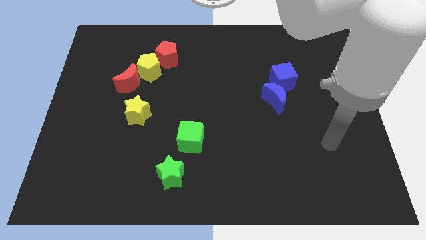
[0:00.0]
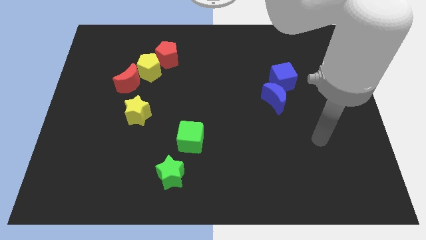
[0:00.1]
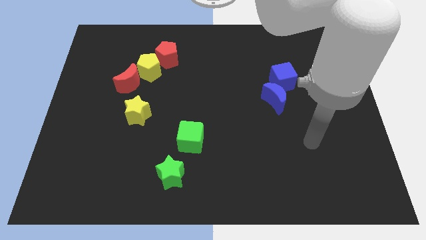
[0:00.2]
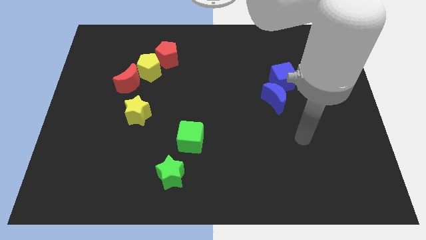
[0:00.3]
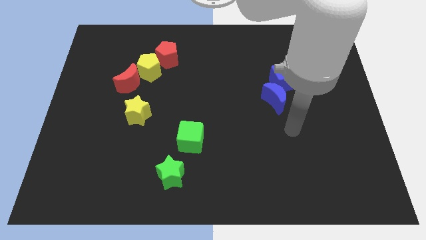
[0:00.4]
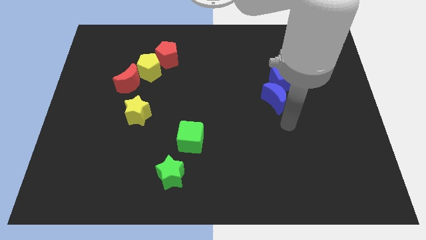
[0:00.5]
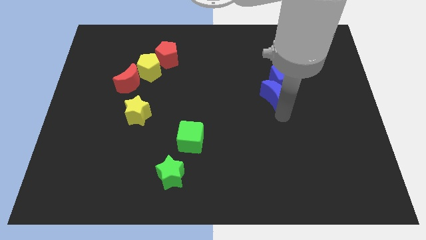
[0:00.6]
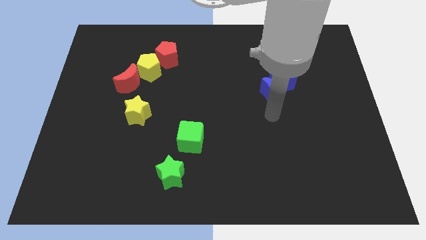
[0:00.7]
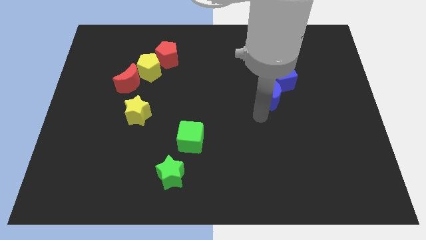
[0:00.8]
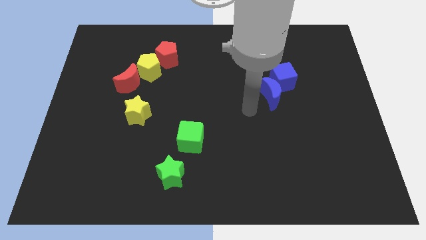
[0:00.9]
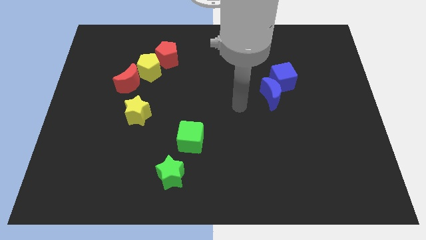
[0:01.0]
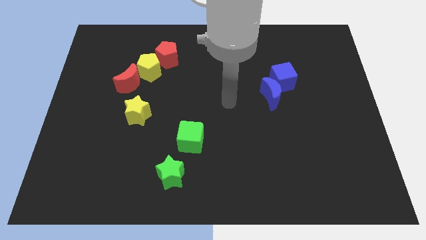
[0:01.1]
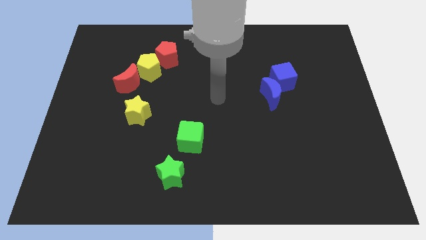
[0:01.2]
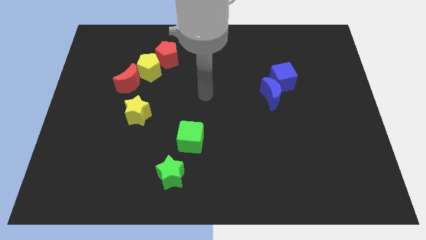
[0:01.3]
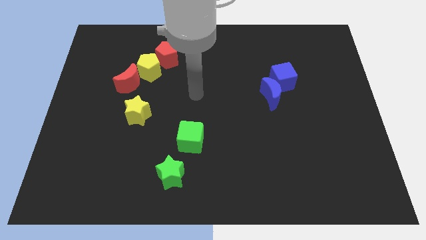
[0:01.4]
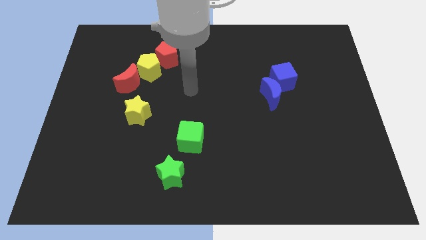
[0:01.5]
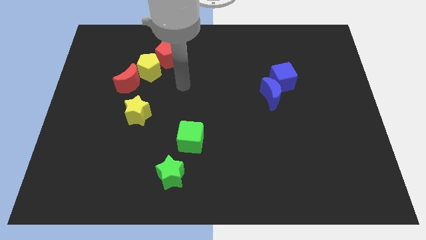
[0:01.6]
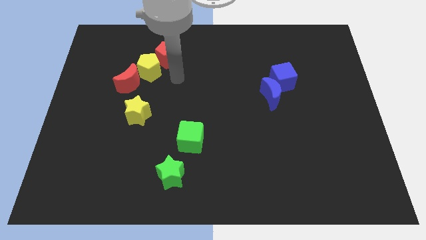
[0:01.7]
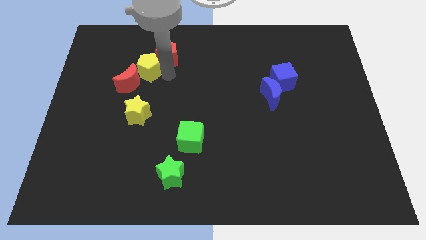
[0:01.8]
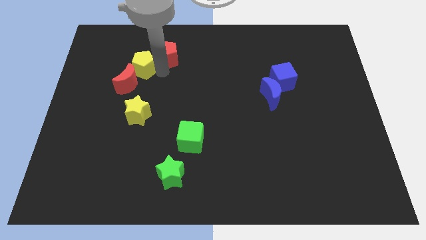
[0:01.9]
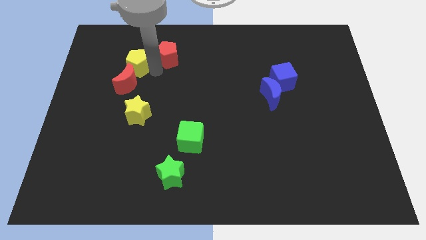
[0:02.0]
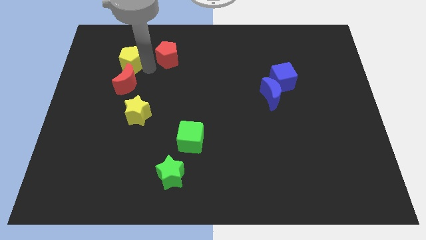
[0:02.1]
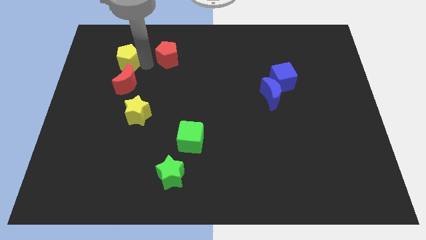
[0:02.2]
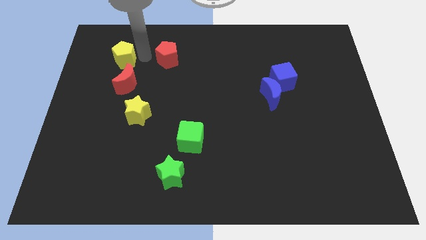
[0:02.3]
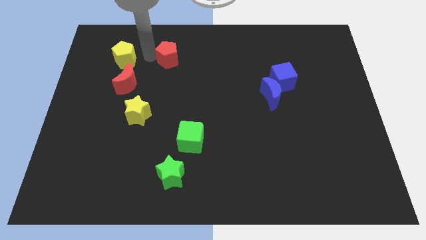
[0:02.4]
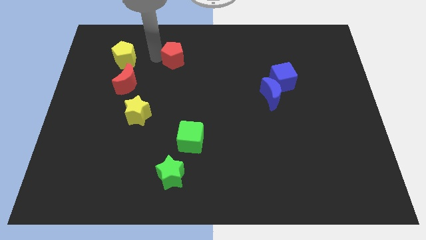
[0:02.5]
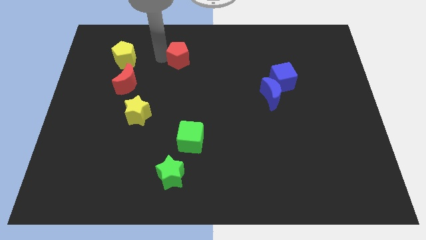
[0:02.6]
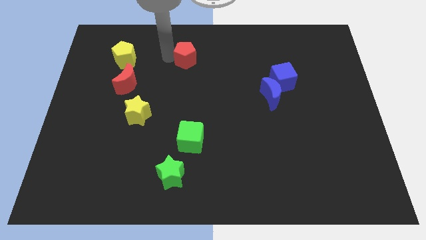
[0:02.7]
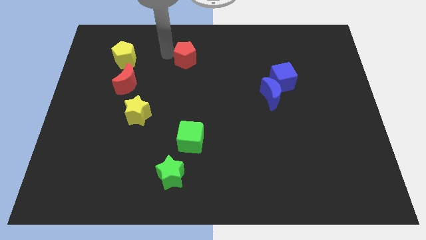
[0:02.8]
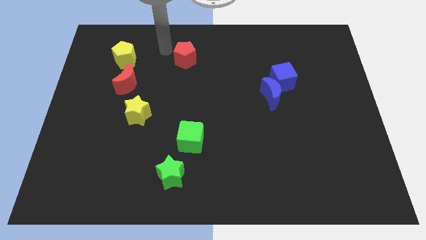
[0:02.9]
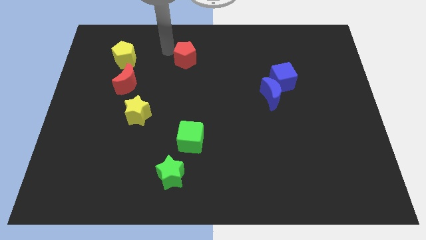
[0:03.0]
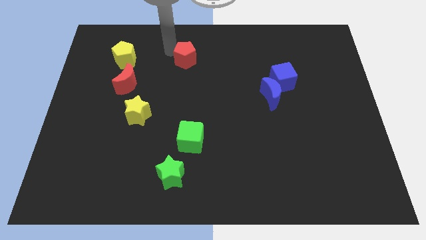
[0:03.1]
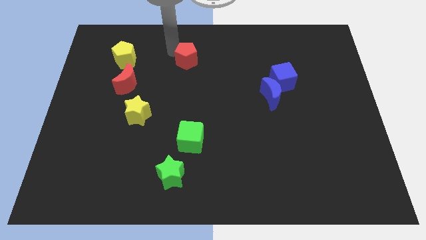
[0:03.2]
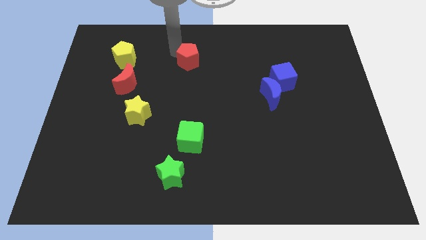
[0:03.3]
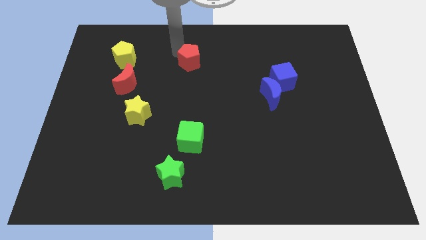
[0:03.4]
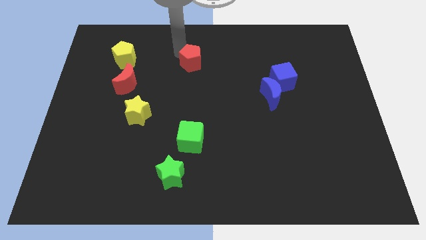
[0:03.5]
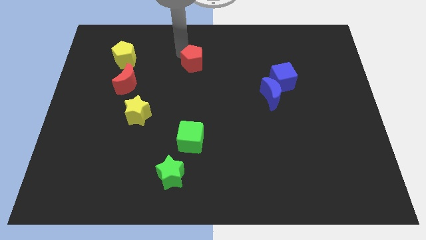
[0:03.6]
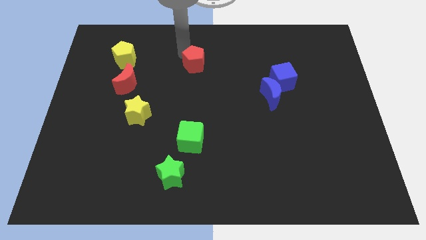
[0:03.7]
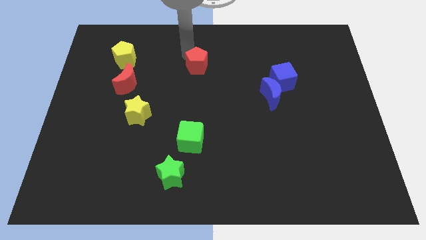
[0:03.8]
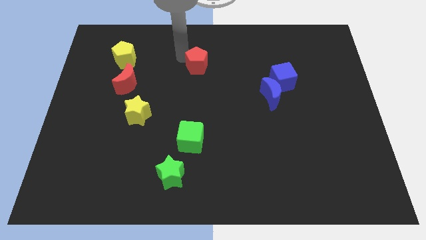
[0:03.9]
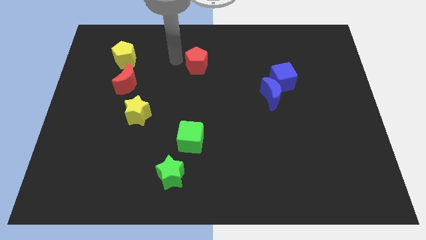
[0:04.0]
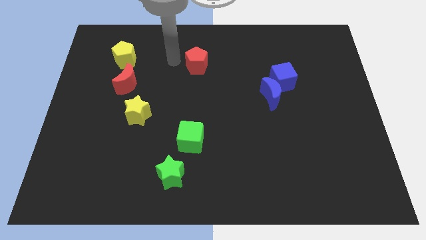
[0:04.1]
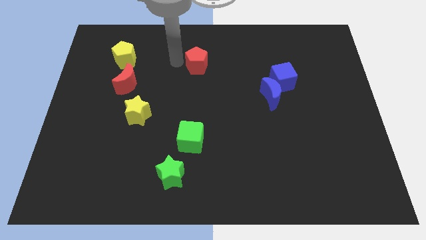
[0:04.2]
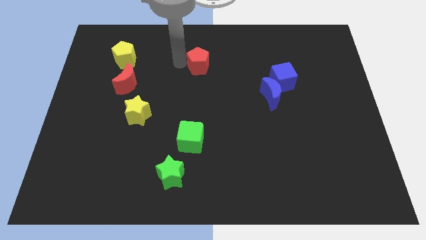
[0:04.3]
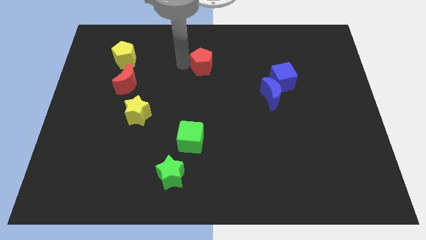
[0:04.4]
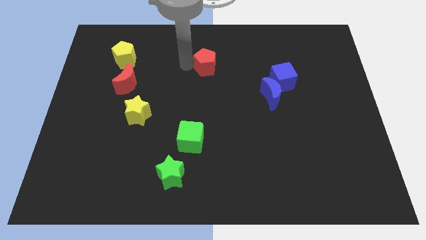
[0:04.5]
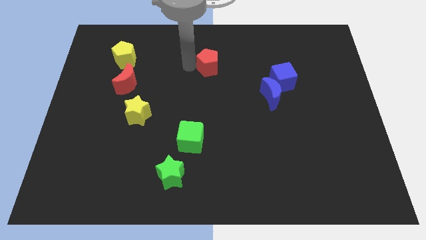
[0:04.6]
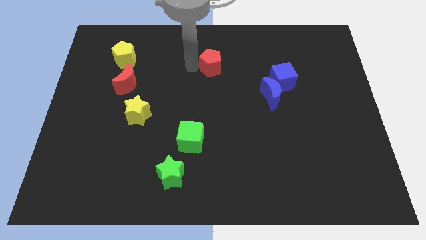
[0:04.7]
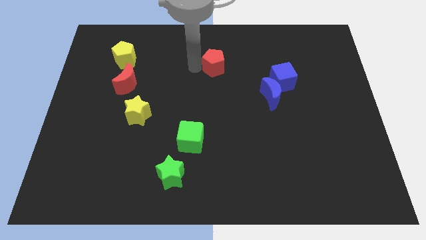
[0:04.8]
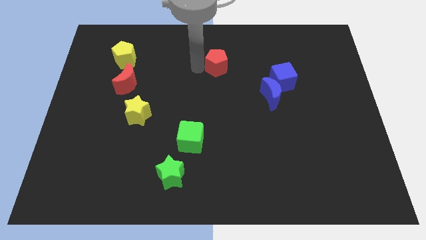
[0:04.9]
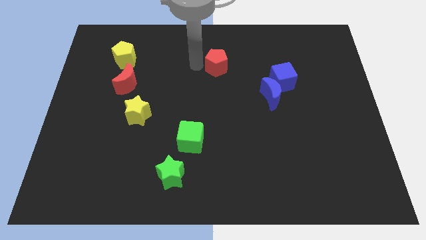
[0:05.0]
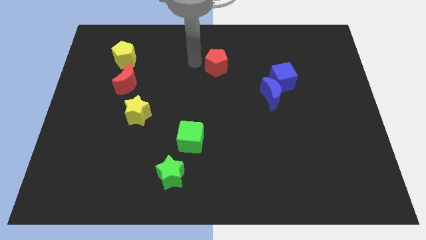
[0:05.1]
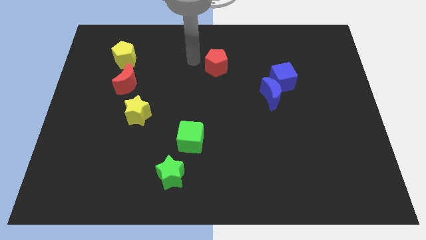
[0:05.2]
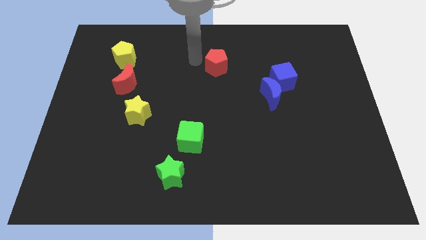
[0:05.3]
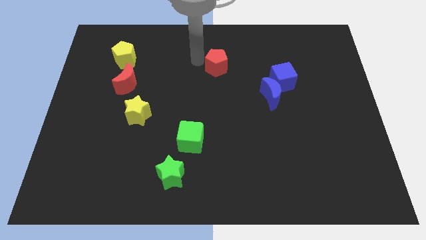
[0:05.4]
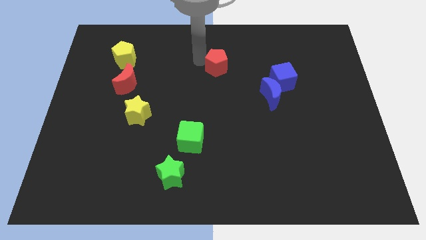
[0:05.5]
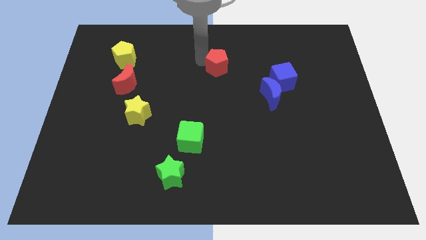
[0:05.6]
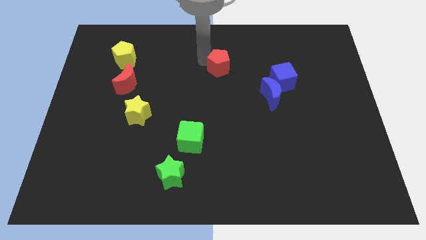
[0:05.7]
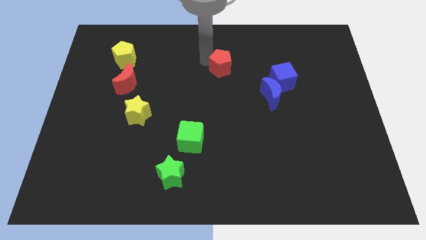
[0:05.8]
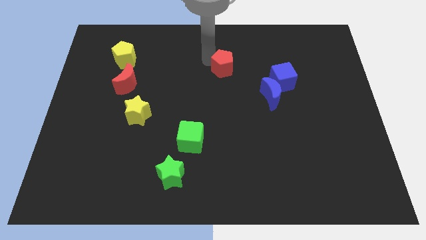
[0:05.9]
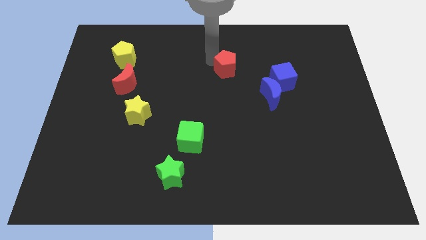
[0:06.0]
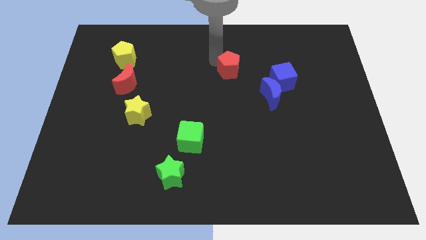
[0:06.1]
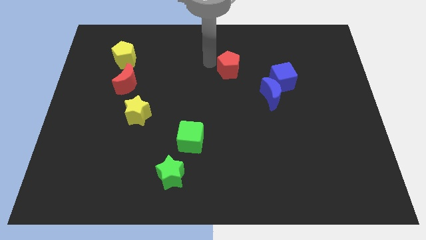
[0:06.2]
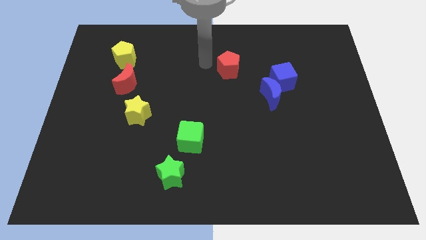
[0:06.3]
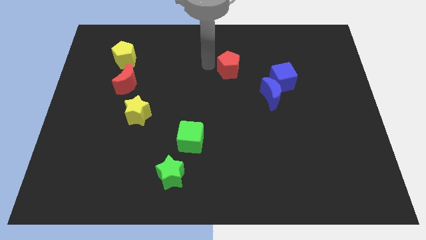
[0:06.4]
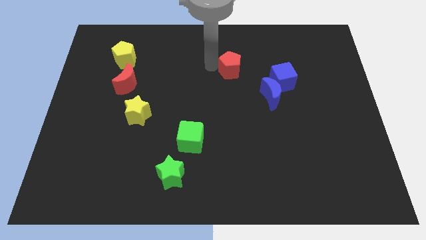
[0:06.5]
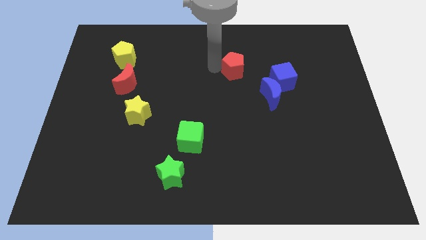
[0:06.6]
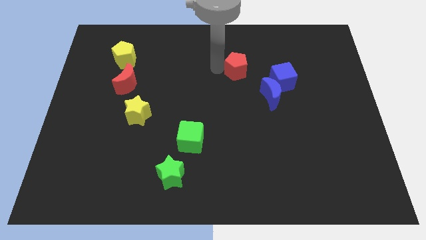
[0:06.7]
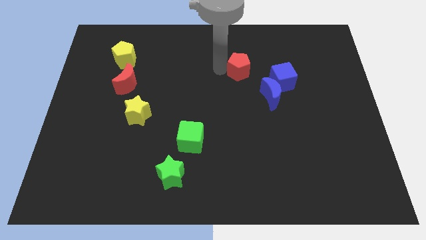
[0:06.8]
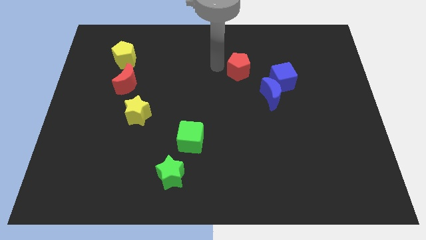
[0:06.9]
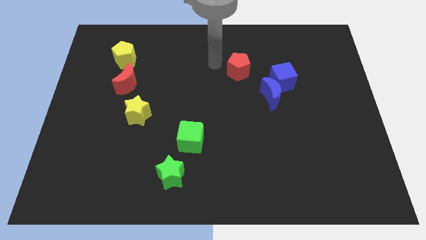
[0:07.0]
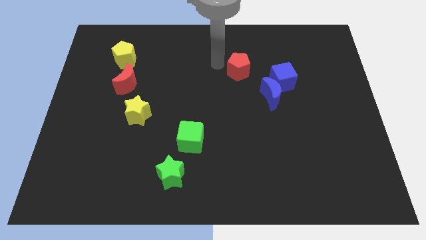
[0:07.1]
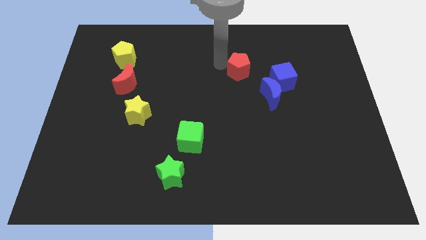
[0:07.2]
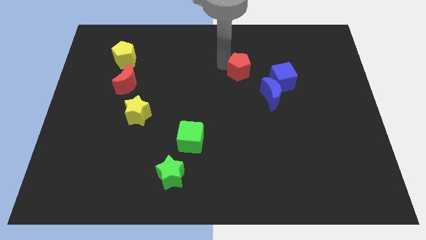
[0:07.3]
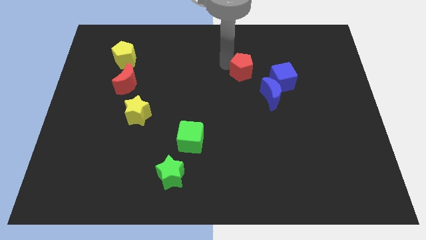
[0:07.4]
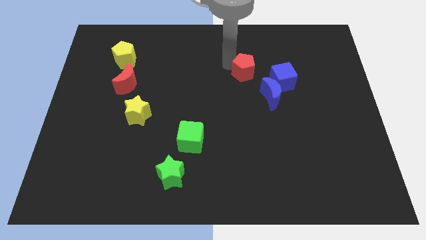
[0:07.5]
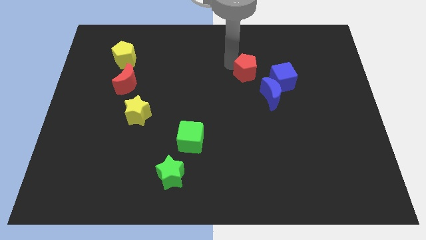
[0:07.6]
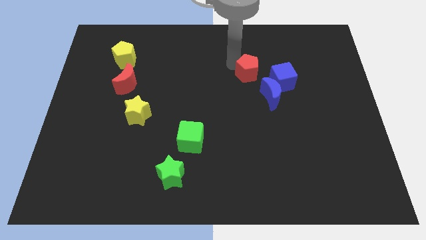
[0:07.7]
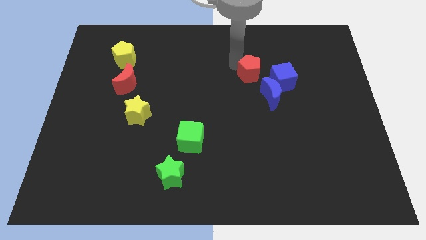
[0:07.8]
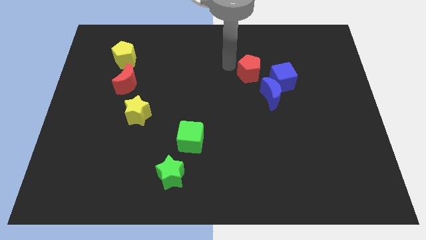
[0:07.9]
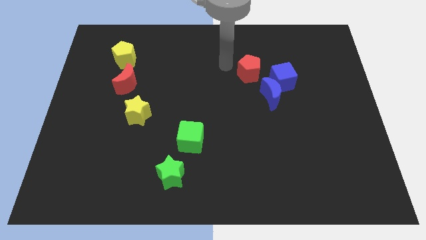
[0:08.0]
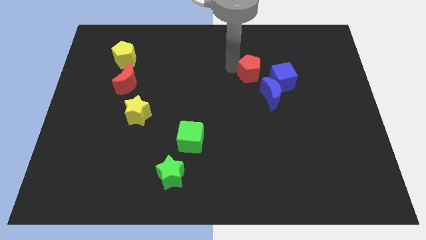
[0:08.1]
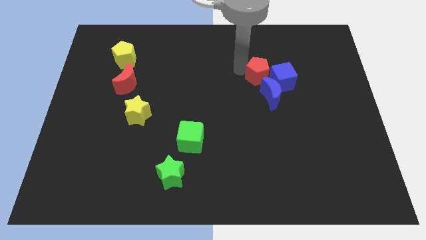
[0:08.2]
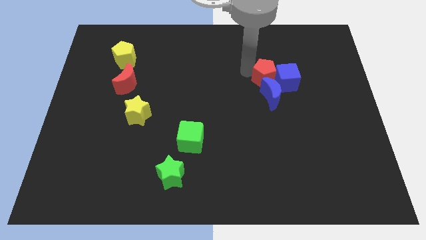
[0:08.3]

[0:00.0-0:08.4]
push the red pentagon close to the blue cube
